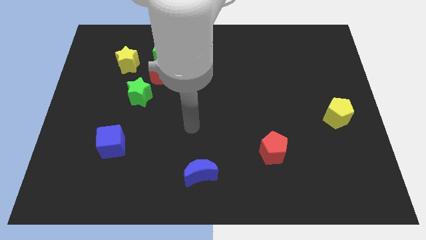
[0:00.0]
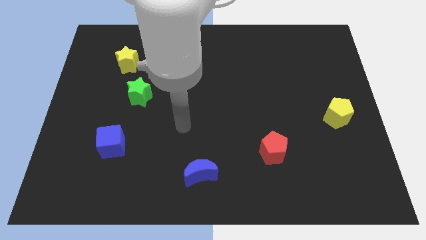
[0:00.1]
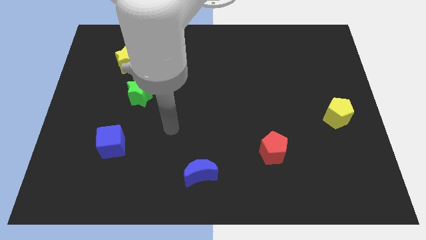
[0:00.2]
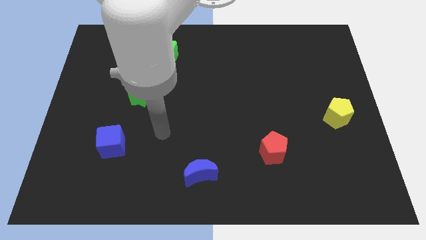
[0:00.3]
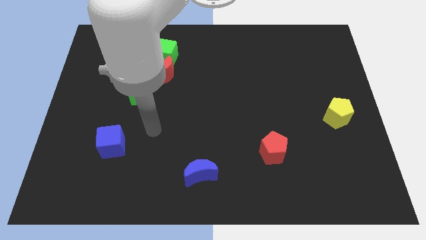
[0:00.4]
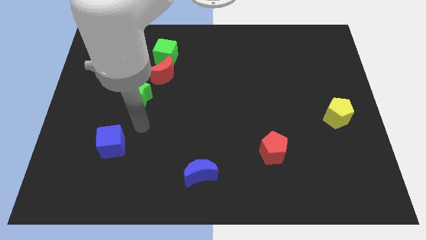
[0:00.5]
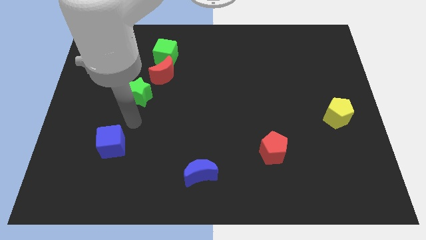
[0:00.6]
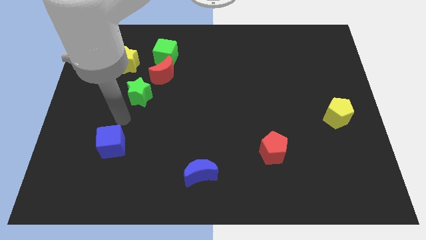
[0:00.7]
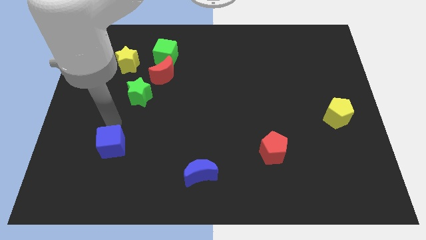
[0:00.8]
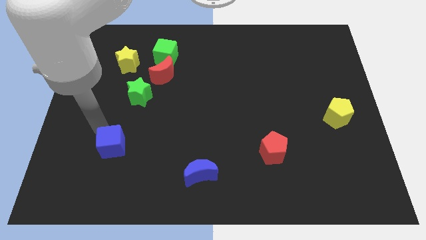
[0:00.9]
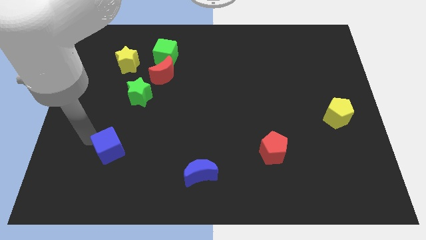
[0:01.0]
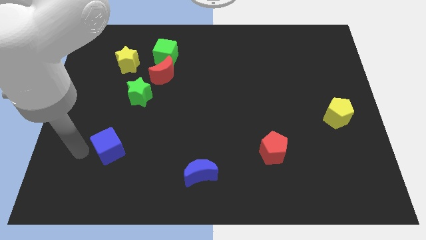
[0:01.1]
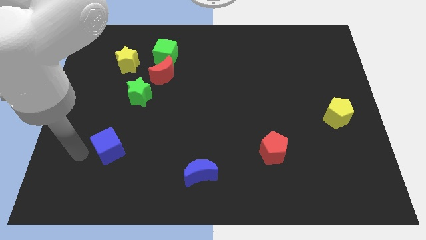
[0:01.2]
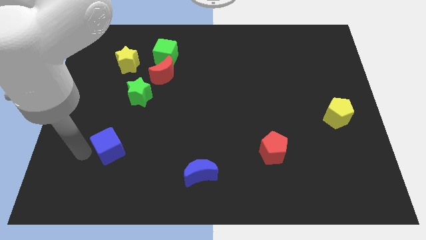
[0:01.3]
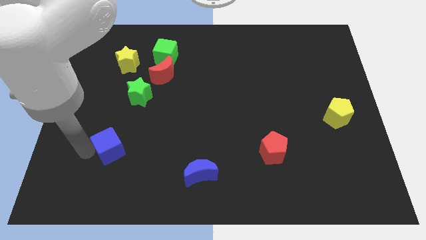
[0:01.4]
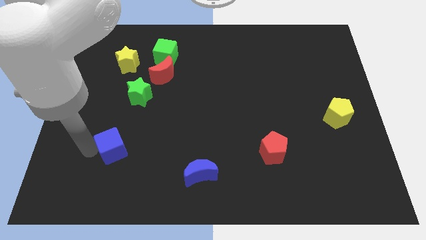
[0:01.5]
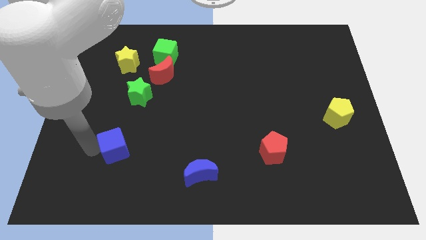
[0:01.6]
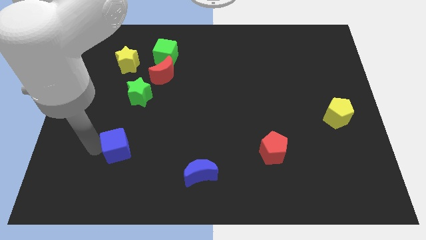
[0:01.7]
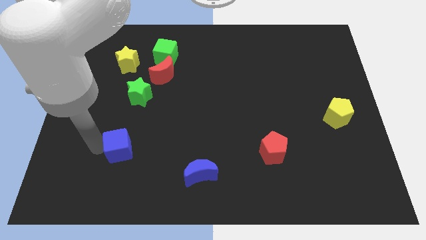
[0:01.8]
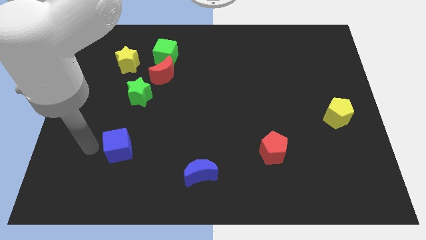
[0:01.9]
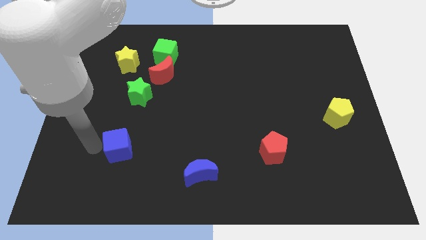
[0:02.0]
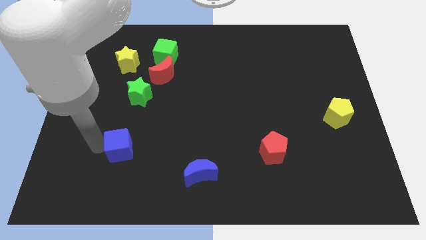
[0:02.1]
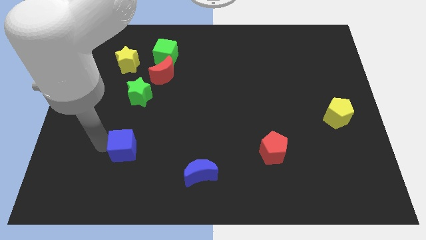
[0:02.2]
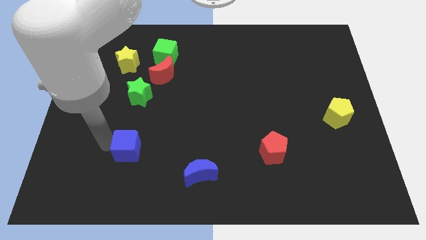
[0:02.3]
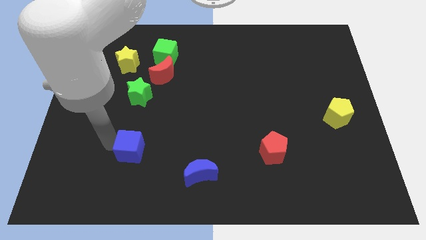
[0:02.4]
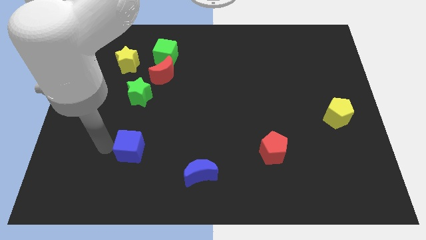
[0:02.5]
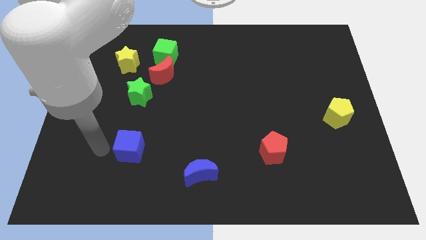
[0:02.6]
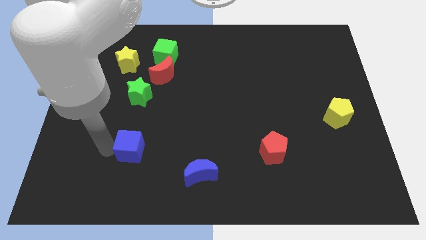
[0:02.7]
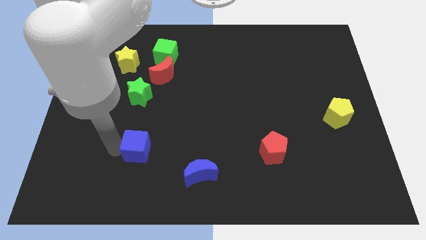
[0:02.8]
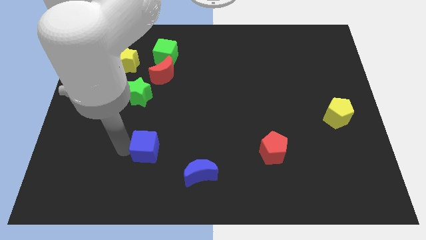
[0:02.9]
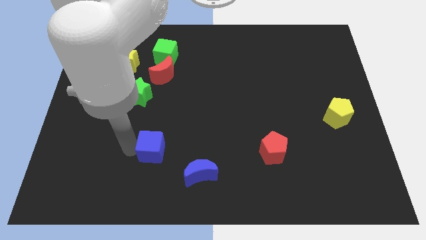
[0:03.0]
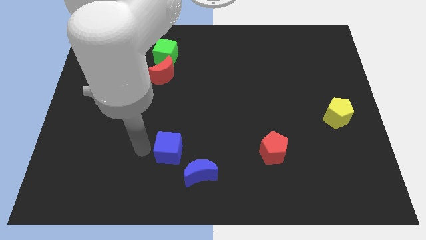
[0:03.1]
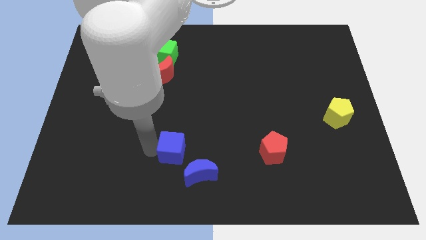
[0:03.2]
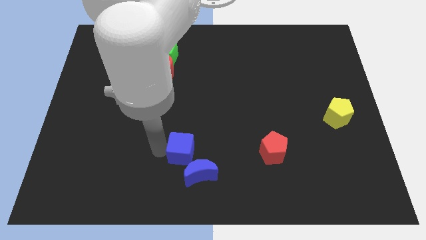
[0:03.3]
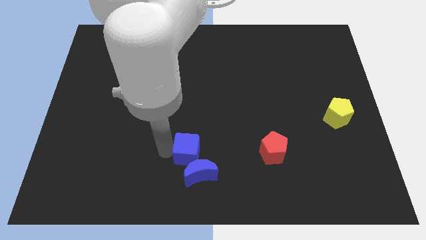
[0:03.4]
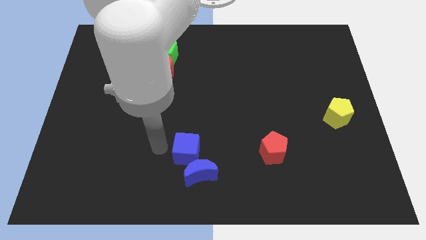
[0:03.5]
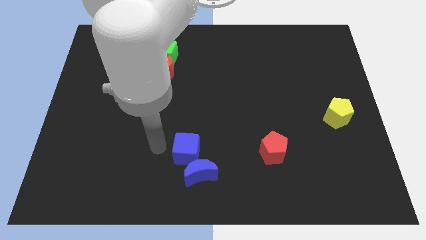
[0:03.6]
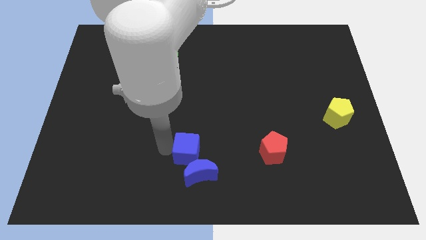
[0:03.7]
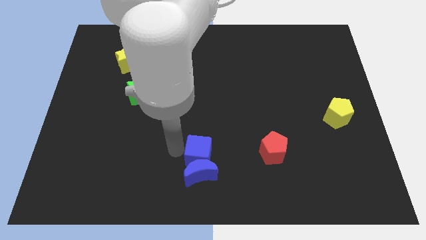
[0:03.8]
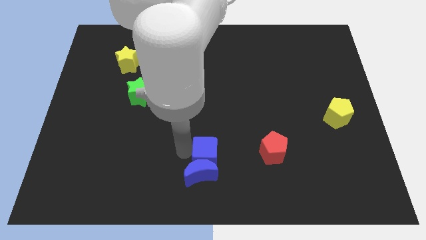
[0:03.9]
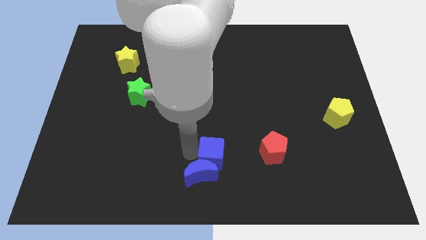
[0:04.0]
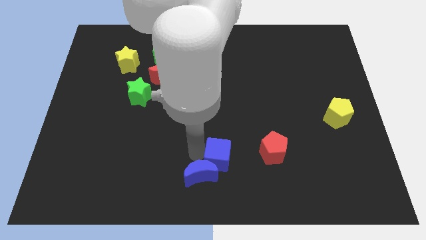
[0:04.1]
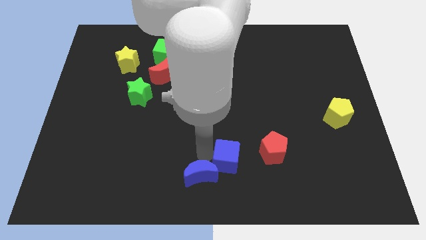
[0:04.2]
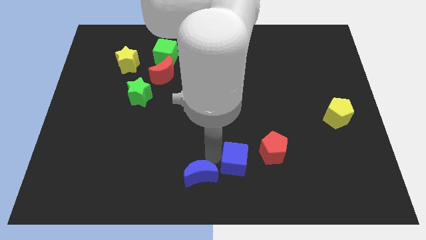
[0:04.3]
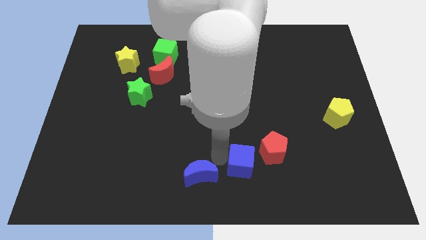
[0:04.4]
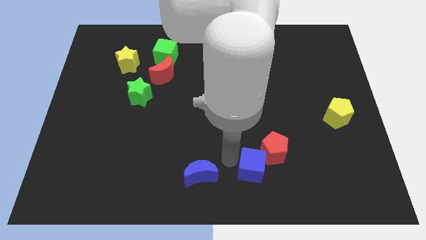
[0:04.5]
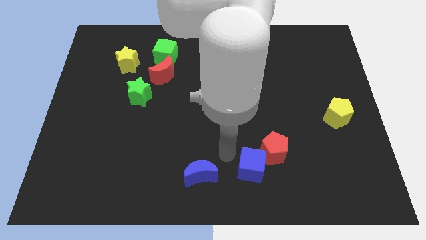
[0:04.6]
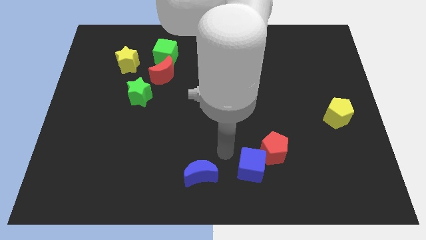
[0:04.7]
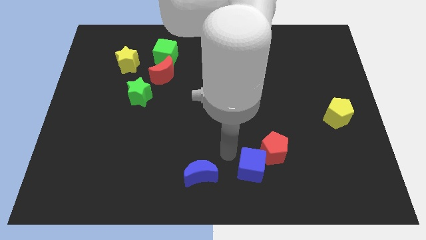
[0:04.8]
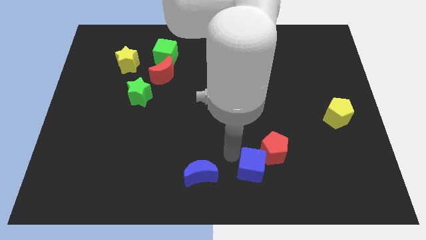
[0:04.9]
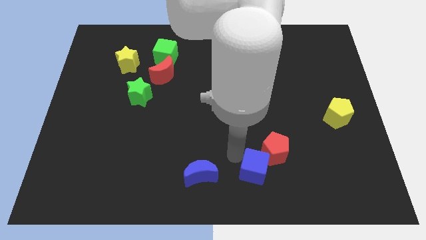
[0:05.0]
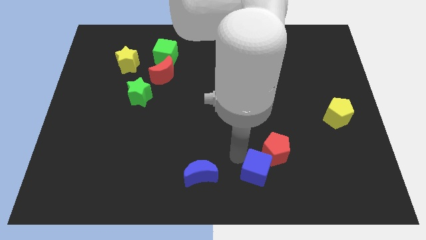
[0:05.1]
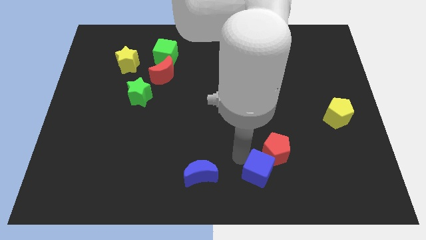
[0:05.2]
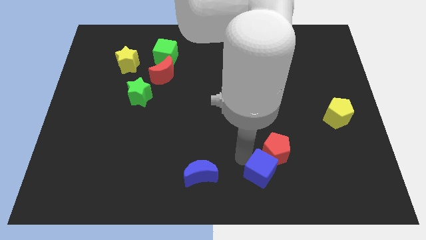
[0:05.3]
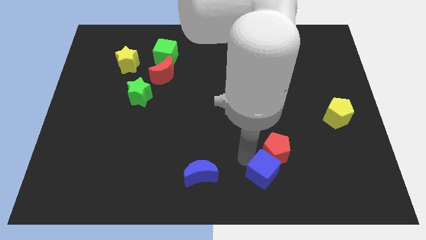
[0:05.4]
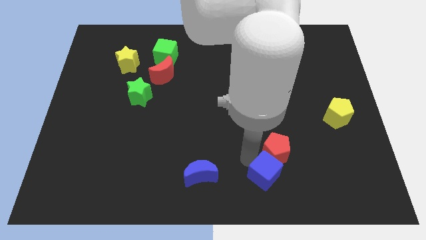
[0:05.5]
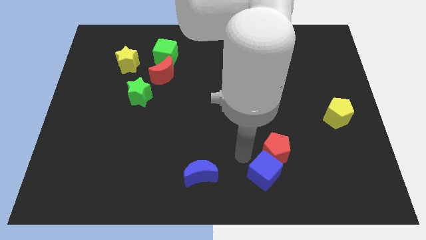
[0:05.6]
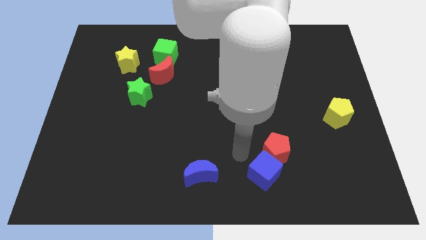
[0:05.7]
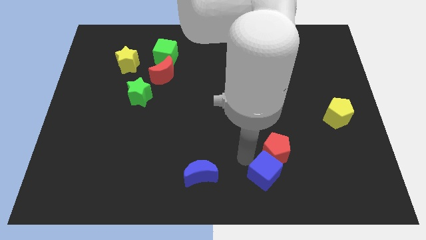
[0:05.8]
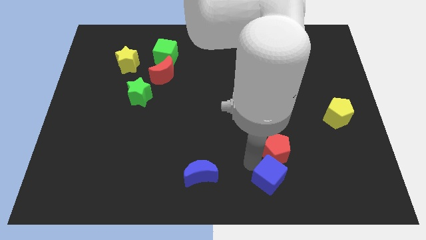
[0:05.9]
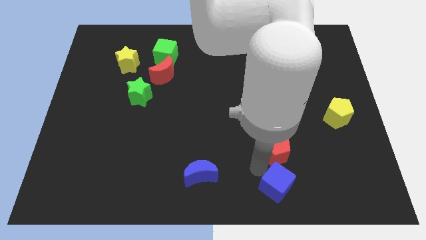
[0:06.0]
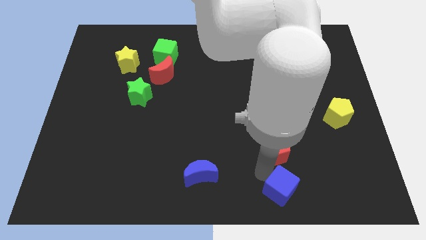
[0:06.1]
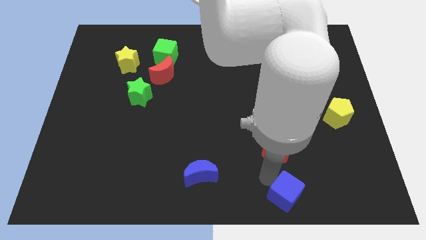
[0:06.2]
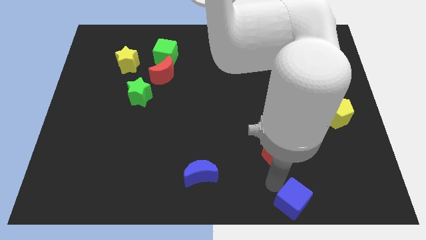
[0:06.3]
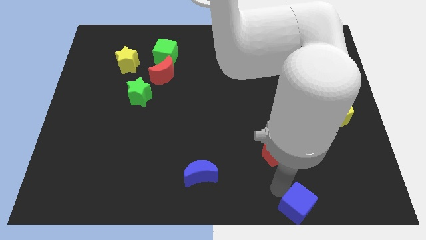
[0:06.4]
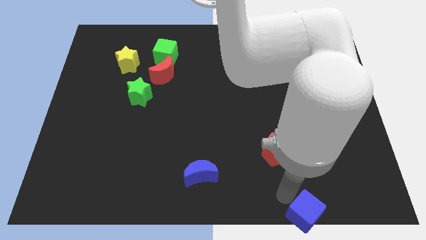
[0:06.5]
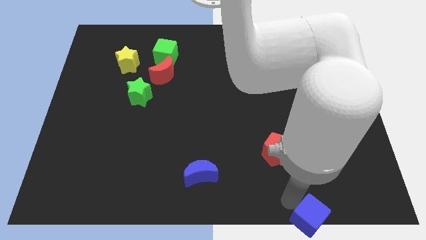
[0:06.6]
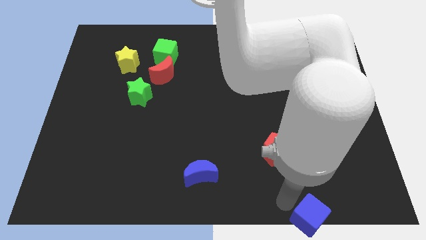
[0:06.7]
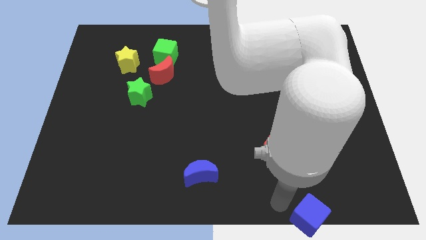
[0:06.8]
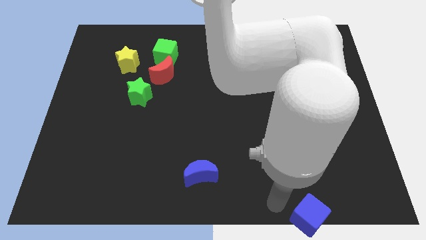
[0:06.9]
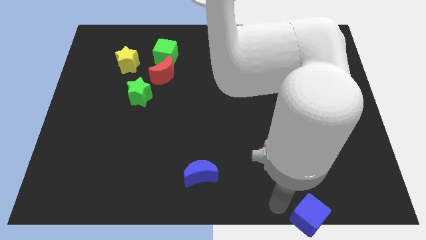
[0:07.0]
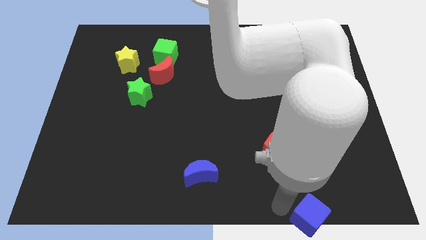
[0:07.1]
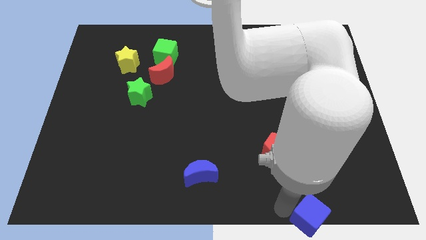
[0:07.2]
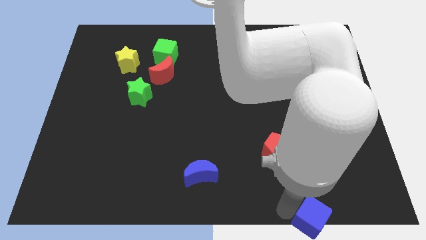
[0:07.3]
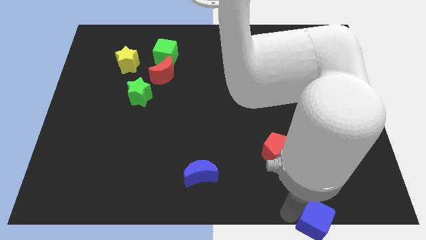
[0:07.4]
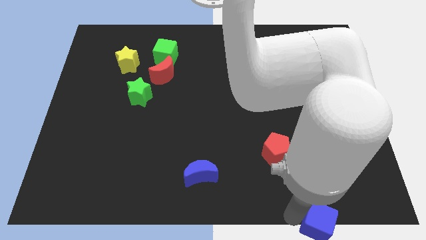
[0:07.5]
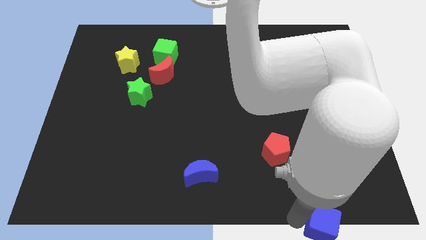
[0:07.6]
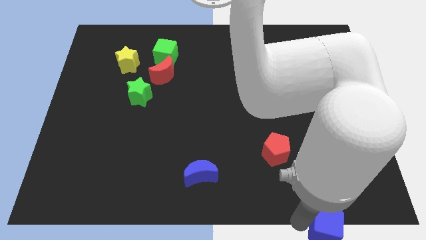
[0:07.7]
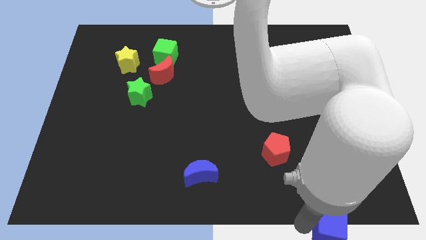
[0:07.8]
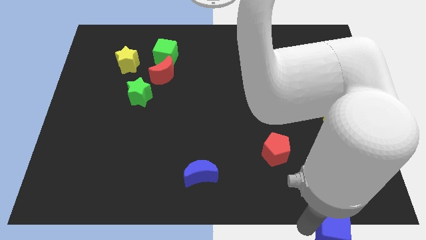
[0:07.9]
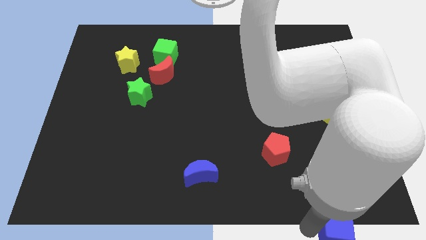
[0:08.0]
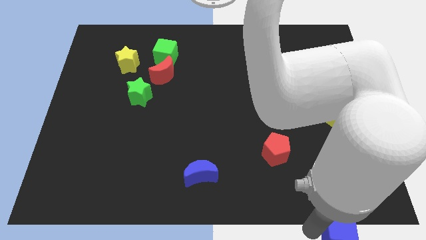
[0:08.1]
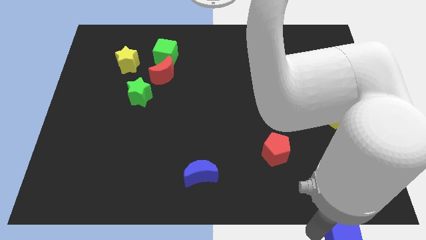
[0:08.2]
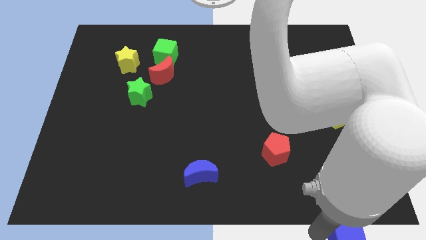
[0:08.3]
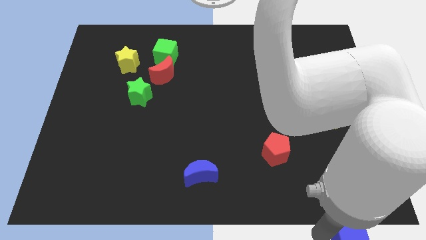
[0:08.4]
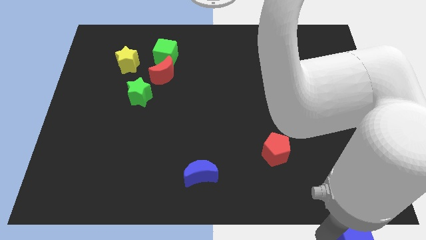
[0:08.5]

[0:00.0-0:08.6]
push the blue cube to the bottom right
